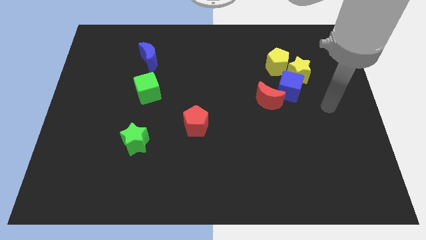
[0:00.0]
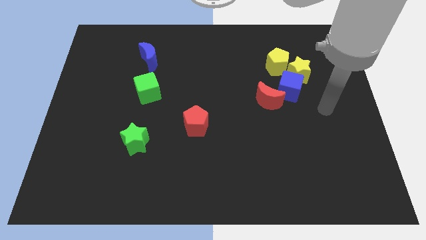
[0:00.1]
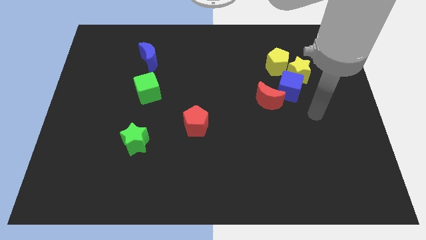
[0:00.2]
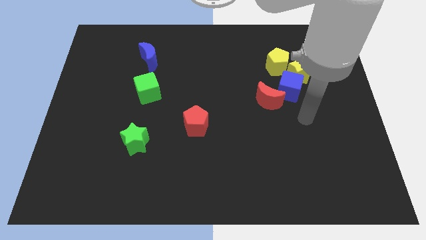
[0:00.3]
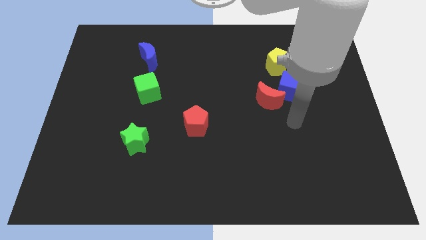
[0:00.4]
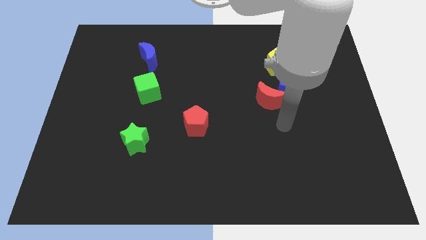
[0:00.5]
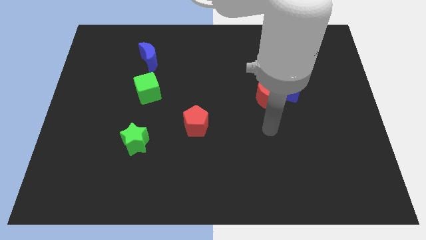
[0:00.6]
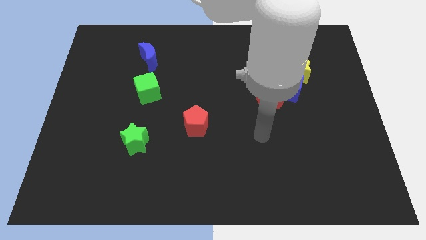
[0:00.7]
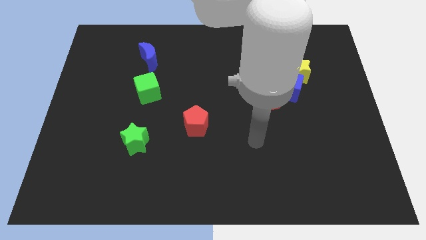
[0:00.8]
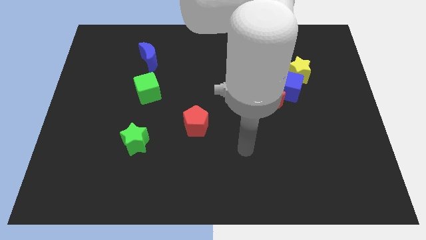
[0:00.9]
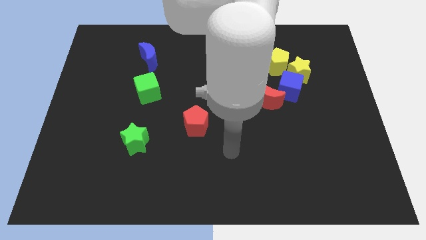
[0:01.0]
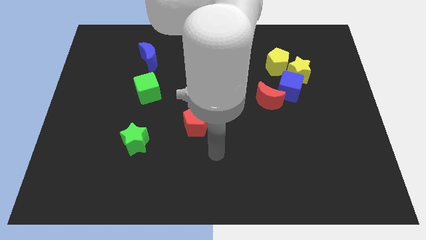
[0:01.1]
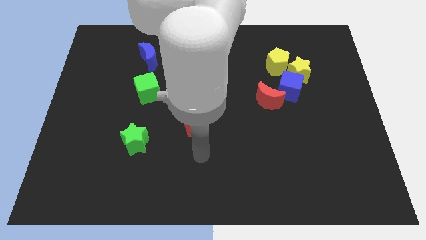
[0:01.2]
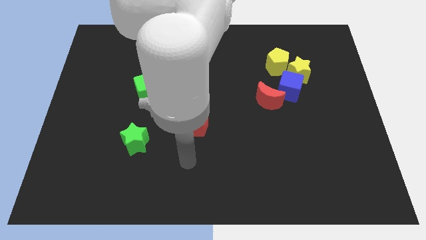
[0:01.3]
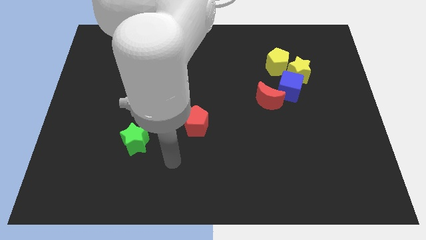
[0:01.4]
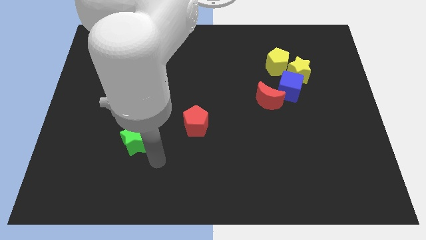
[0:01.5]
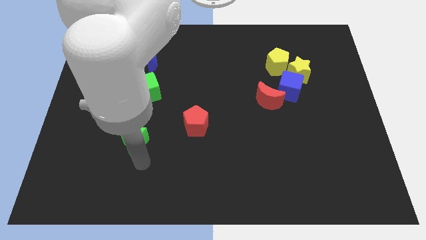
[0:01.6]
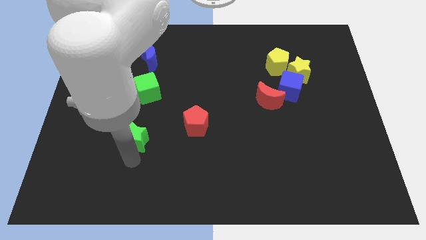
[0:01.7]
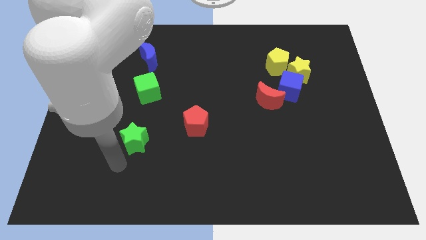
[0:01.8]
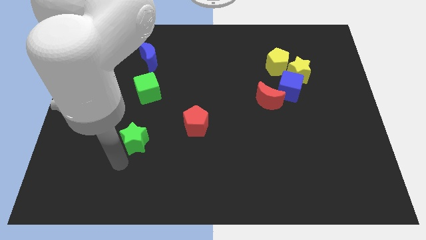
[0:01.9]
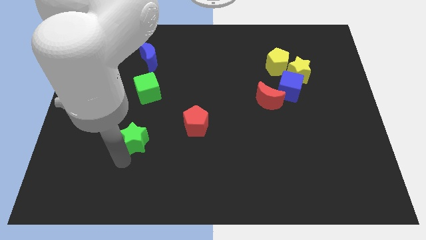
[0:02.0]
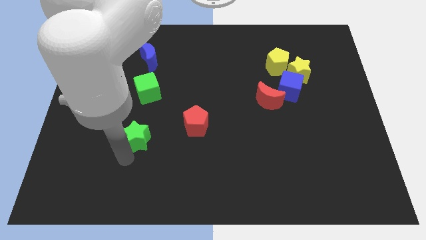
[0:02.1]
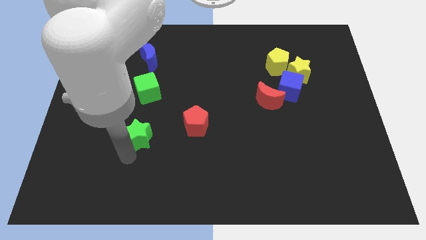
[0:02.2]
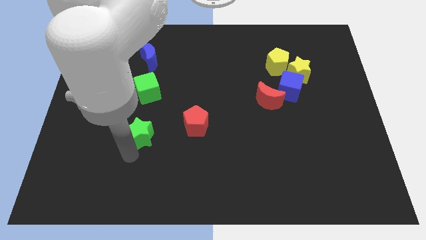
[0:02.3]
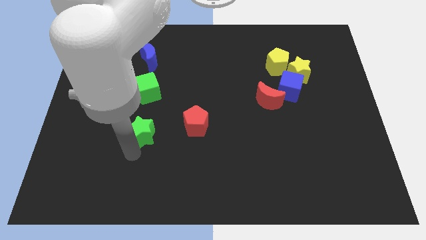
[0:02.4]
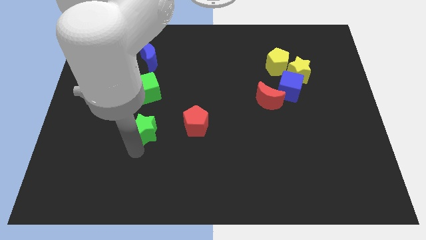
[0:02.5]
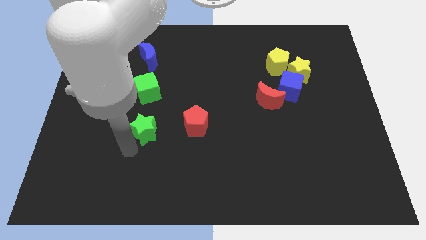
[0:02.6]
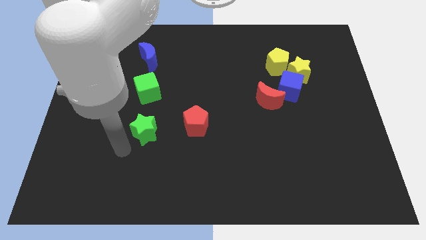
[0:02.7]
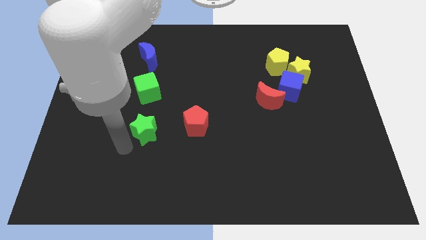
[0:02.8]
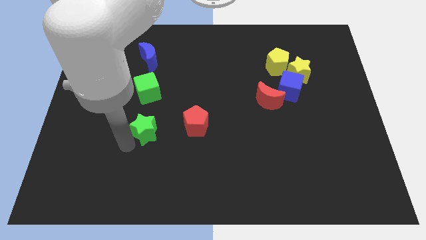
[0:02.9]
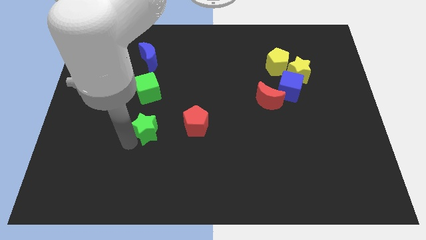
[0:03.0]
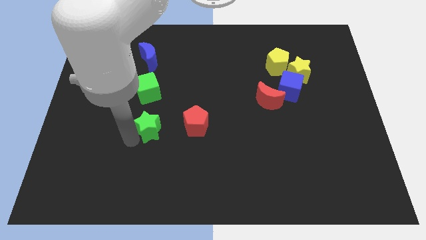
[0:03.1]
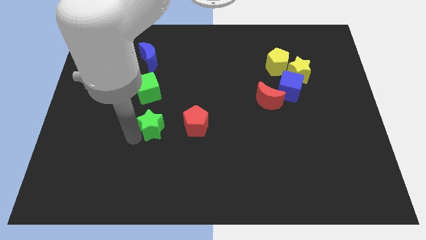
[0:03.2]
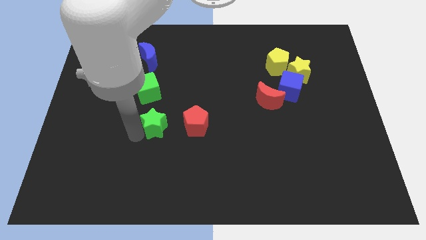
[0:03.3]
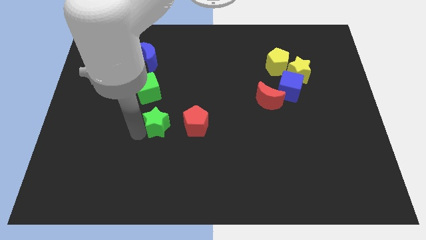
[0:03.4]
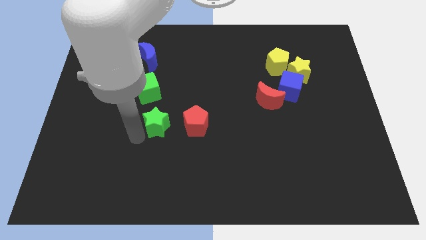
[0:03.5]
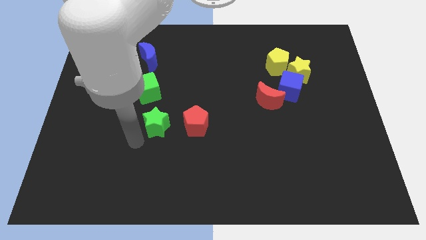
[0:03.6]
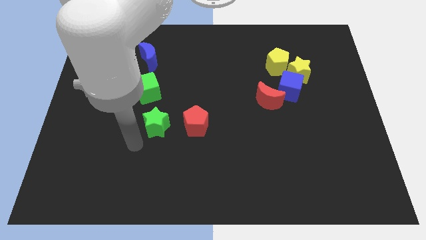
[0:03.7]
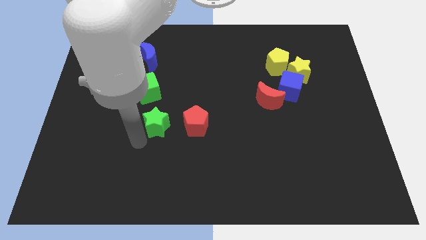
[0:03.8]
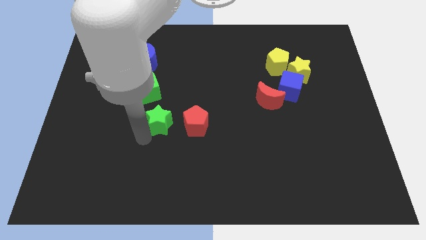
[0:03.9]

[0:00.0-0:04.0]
slide the green star slightly up and to the right diagonally

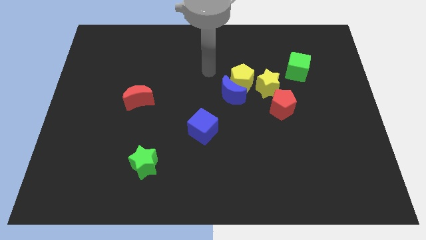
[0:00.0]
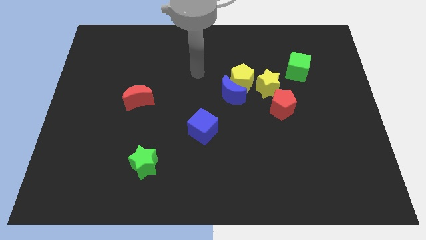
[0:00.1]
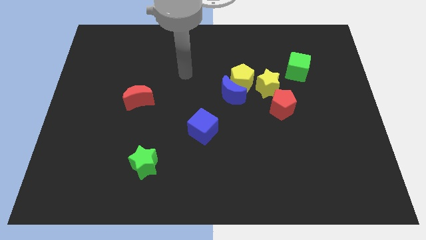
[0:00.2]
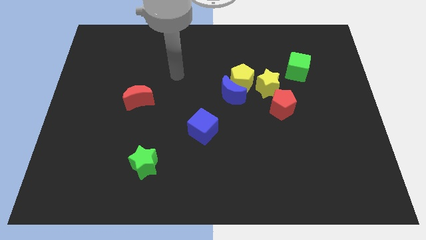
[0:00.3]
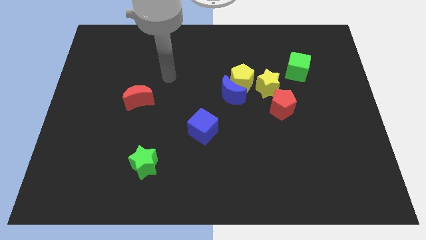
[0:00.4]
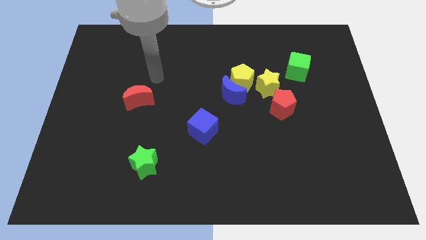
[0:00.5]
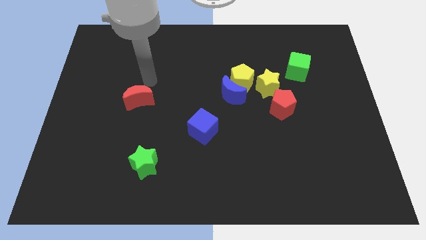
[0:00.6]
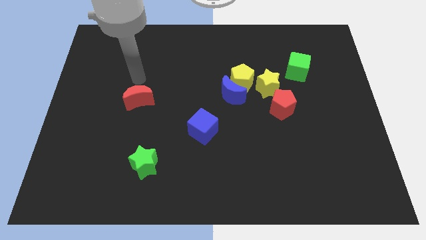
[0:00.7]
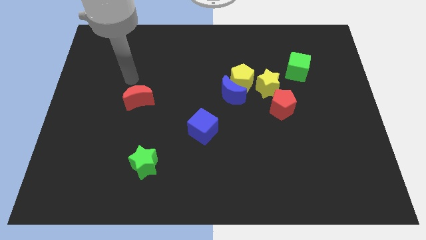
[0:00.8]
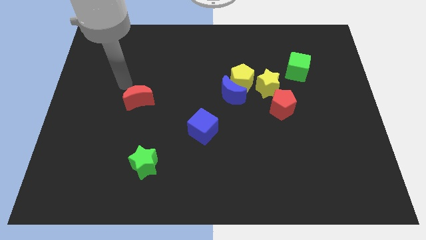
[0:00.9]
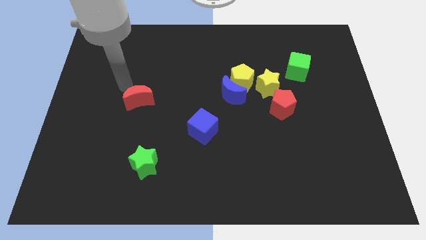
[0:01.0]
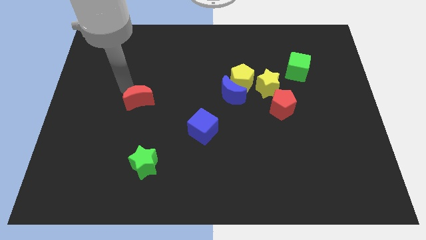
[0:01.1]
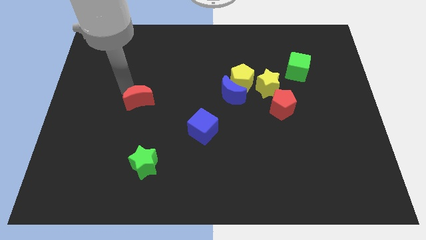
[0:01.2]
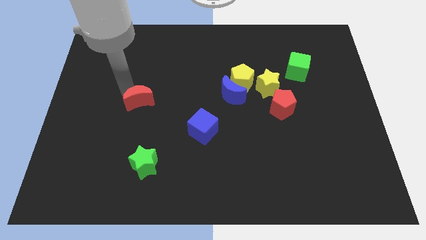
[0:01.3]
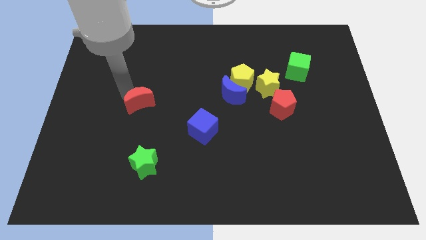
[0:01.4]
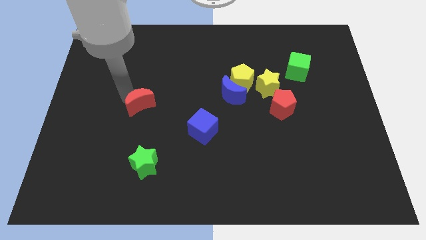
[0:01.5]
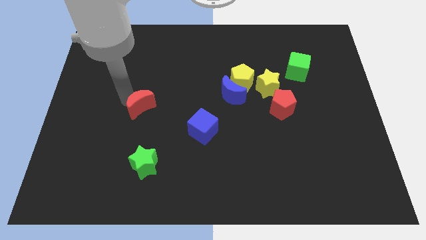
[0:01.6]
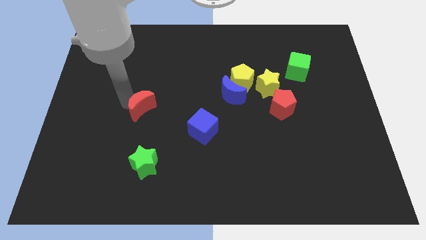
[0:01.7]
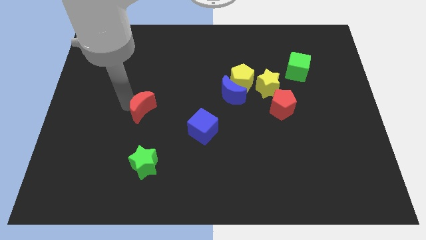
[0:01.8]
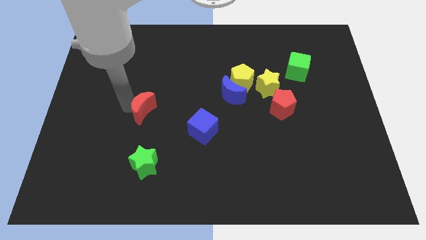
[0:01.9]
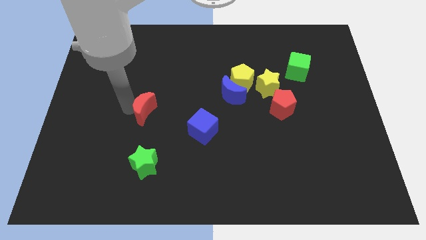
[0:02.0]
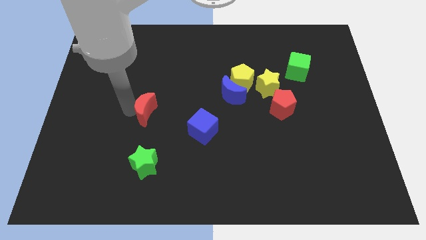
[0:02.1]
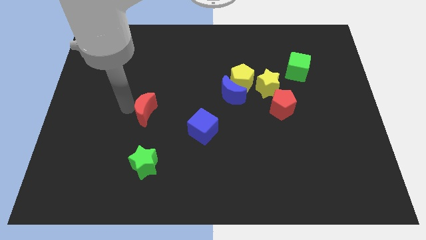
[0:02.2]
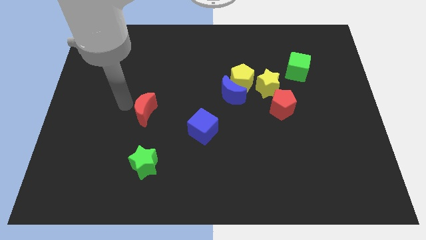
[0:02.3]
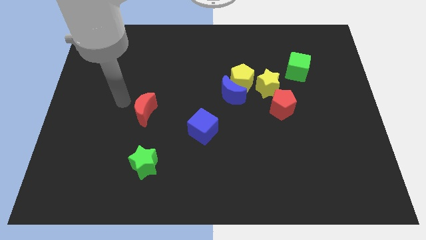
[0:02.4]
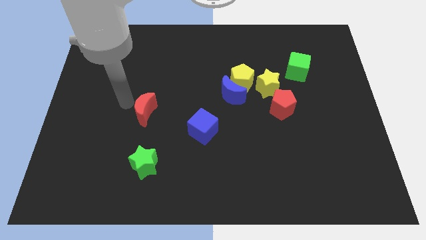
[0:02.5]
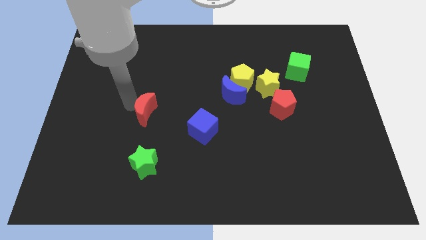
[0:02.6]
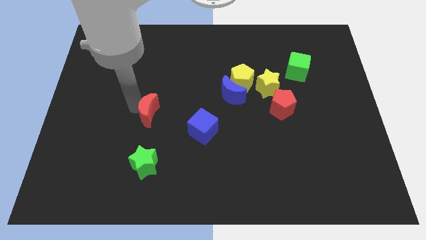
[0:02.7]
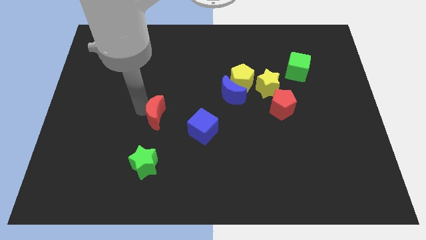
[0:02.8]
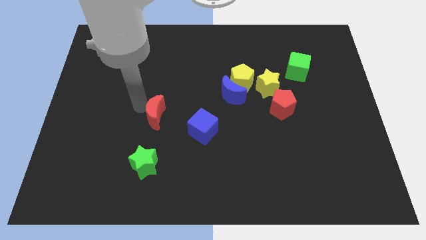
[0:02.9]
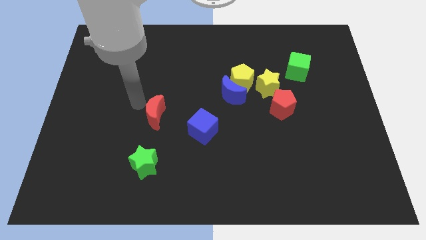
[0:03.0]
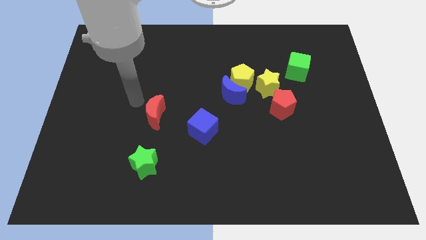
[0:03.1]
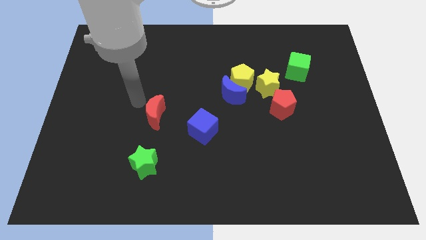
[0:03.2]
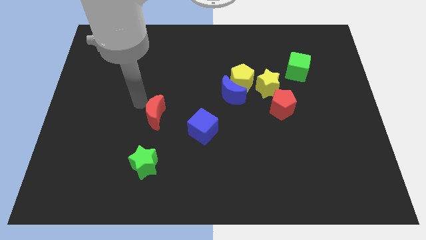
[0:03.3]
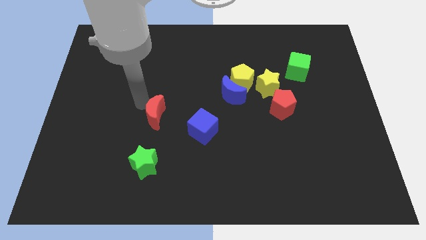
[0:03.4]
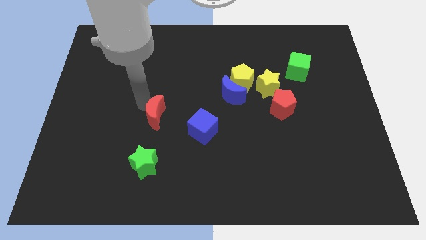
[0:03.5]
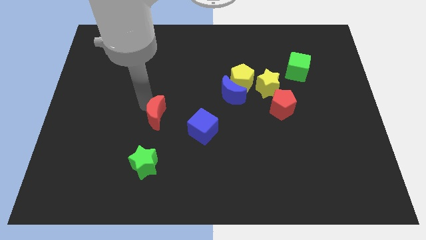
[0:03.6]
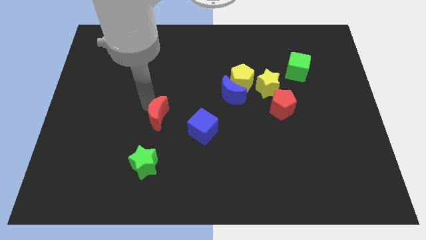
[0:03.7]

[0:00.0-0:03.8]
slightly slide the red moon down and to the right

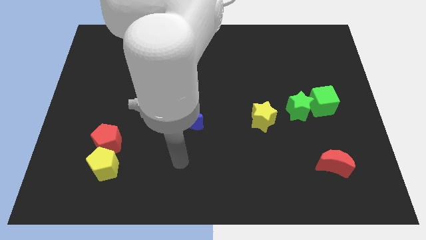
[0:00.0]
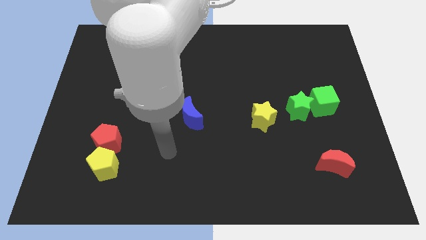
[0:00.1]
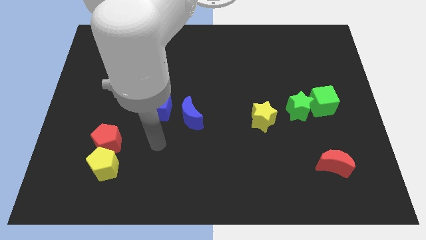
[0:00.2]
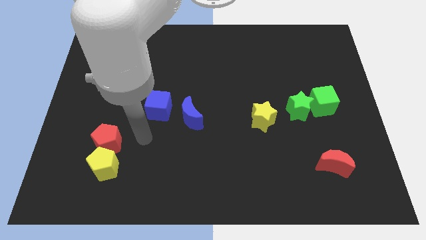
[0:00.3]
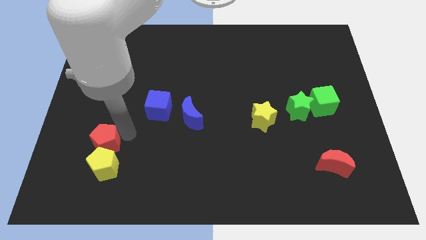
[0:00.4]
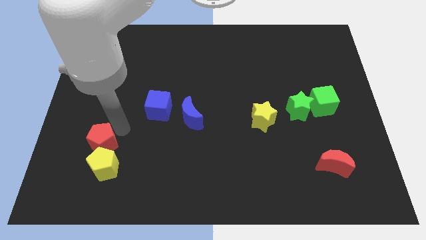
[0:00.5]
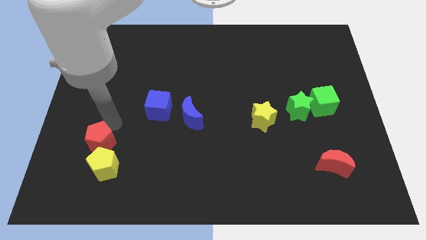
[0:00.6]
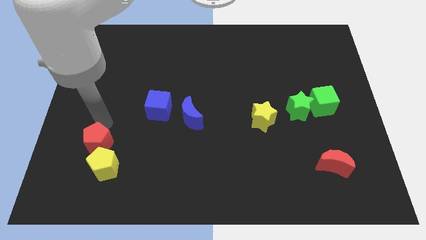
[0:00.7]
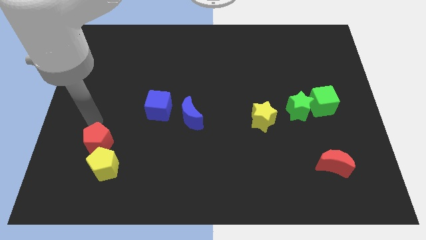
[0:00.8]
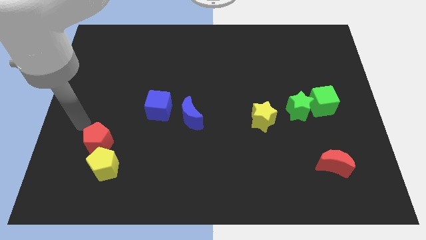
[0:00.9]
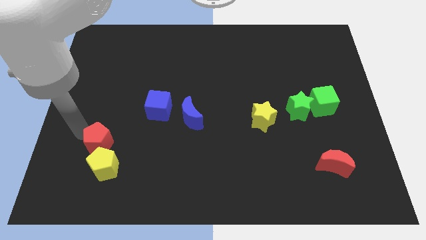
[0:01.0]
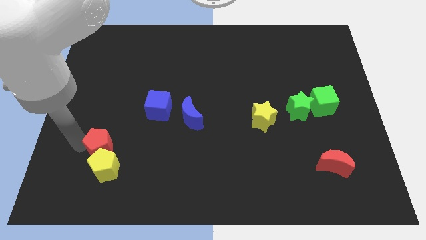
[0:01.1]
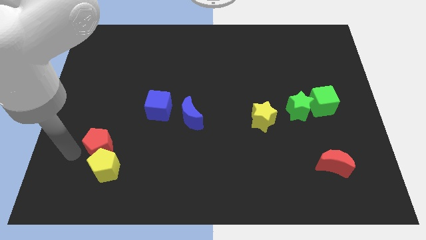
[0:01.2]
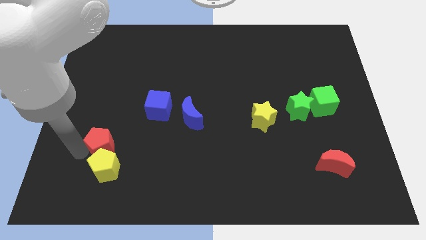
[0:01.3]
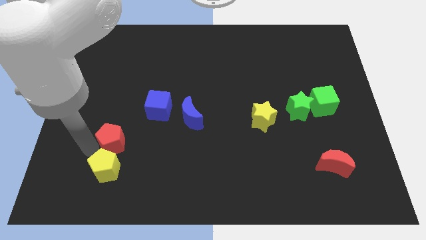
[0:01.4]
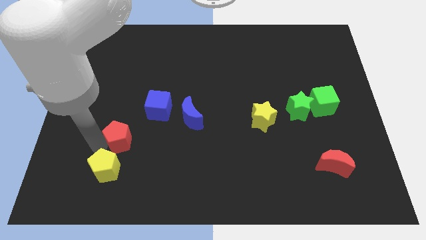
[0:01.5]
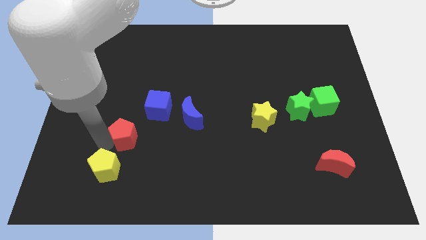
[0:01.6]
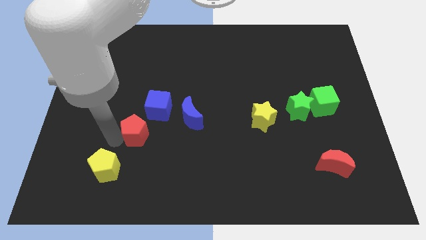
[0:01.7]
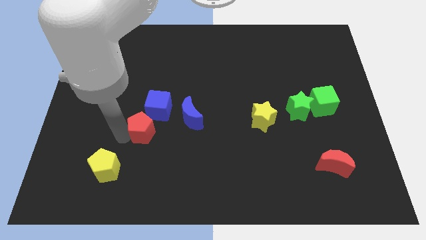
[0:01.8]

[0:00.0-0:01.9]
slightly push the red pentagon right
